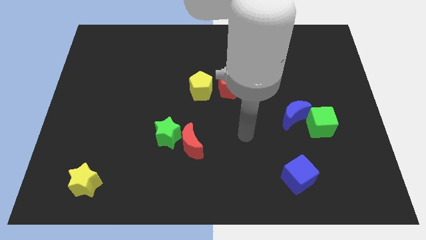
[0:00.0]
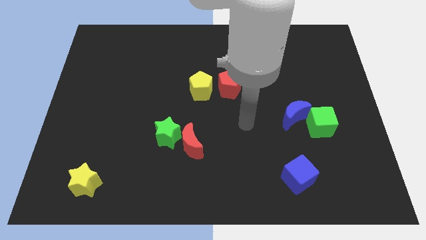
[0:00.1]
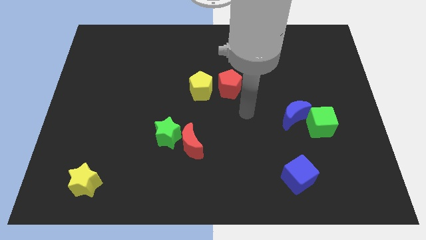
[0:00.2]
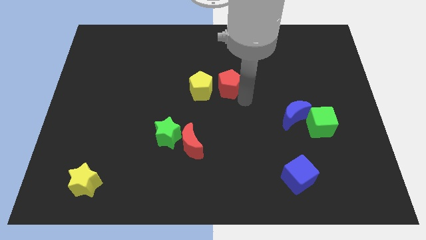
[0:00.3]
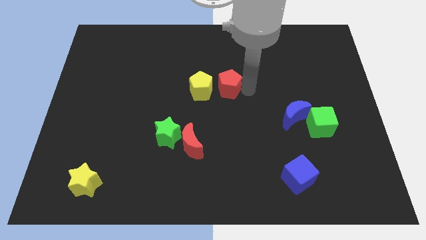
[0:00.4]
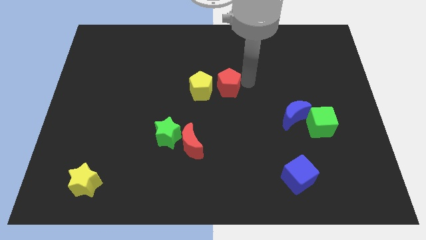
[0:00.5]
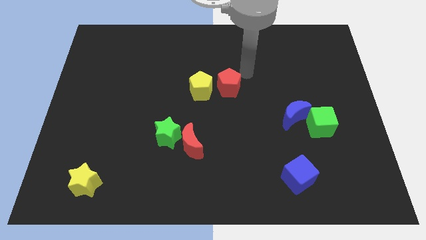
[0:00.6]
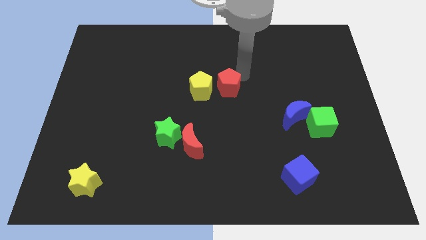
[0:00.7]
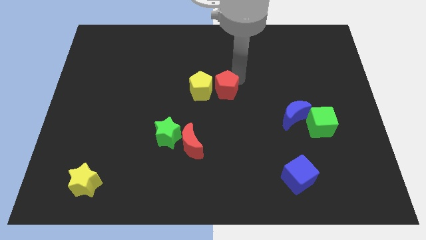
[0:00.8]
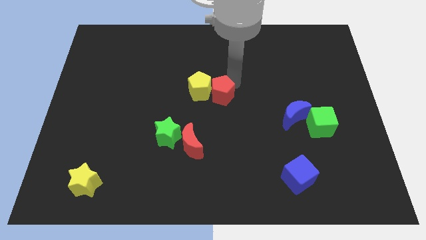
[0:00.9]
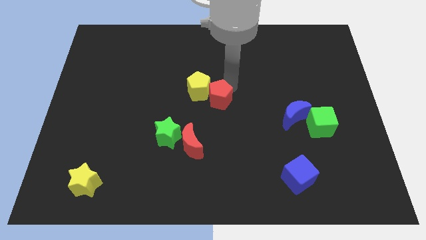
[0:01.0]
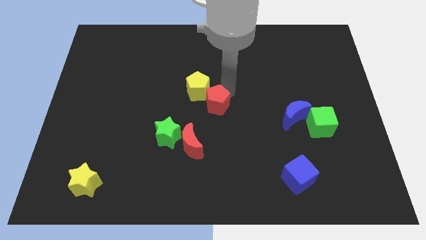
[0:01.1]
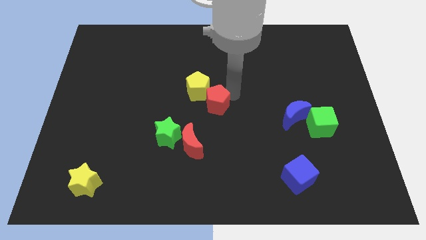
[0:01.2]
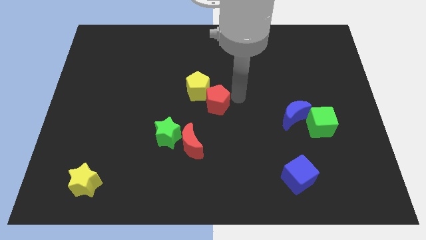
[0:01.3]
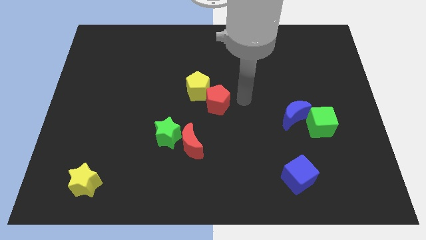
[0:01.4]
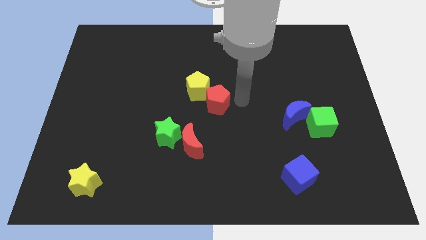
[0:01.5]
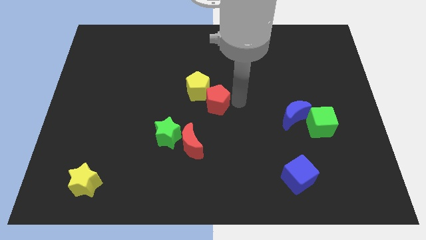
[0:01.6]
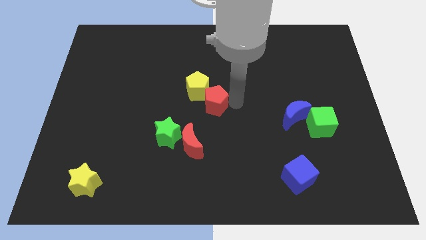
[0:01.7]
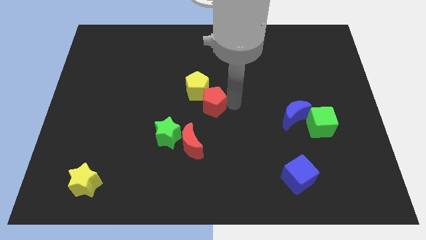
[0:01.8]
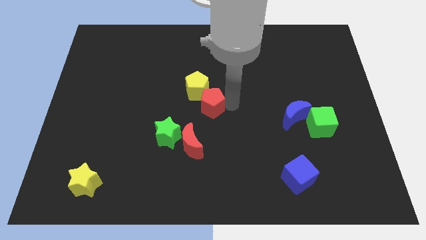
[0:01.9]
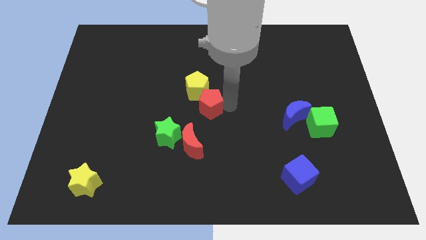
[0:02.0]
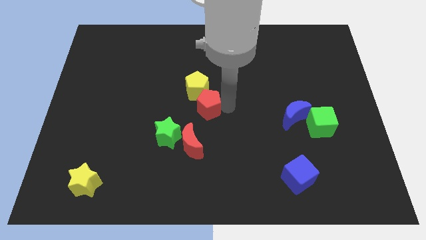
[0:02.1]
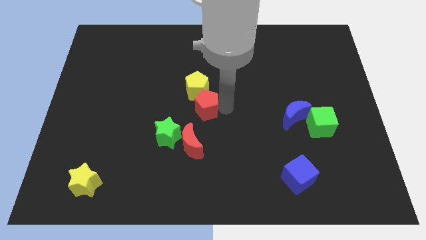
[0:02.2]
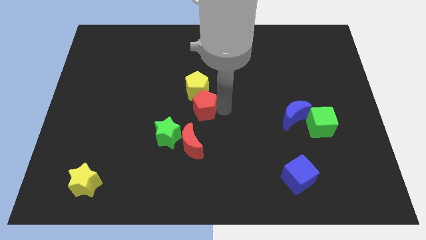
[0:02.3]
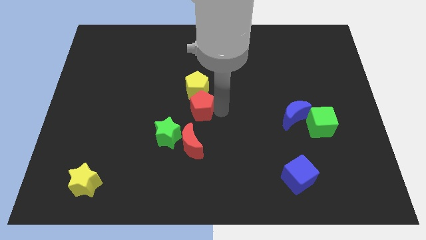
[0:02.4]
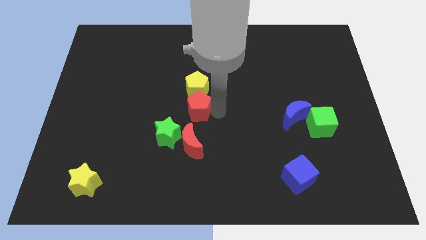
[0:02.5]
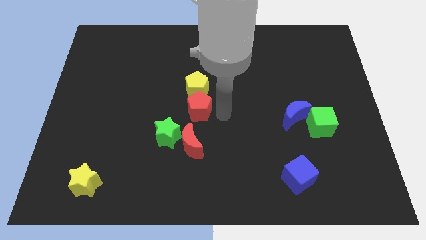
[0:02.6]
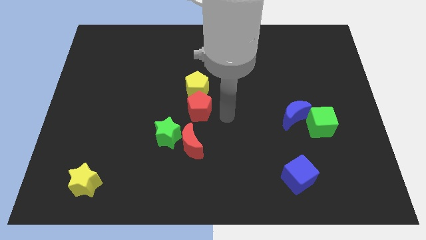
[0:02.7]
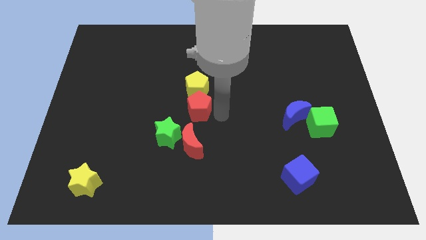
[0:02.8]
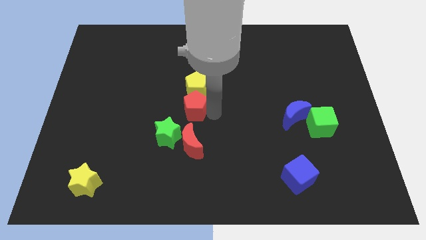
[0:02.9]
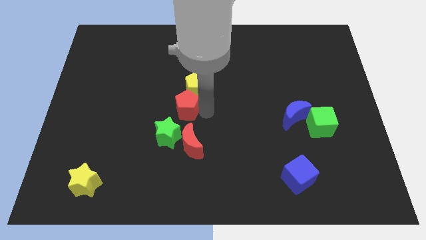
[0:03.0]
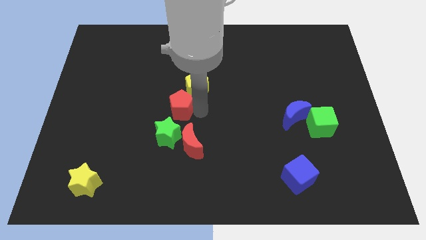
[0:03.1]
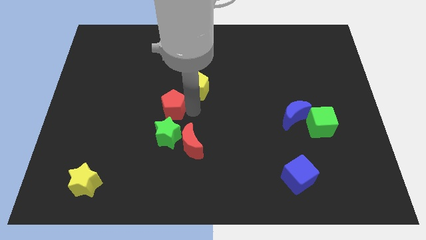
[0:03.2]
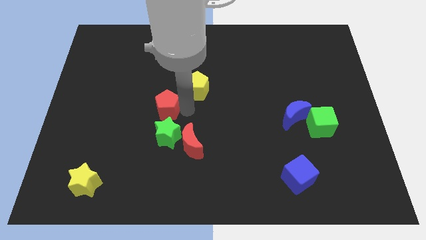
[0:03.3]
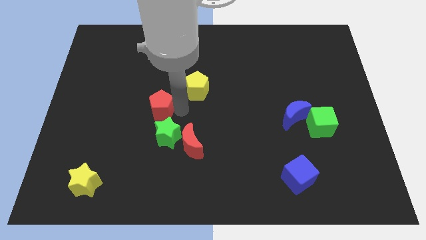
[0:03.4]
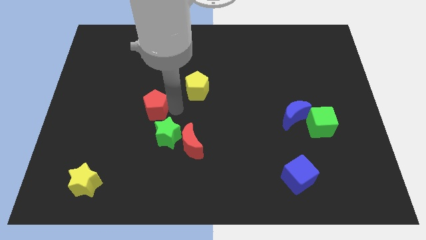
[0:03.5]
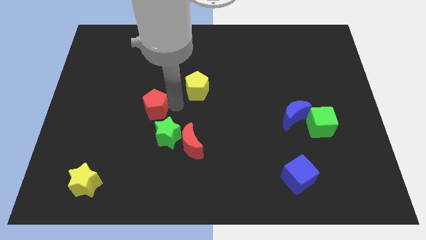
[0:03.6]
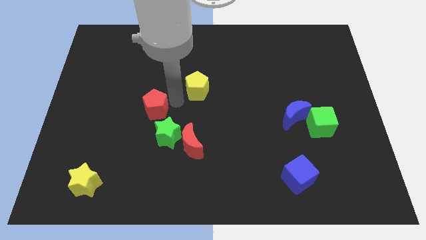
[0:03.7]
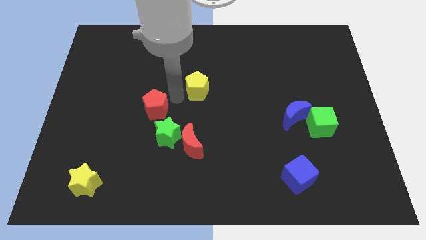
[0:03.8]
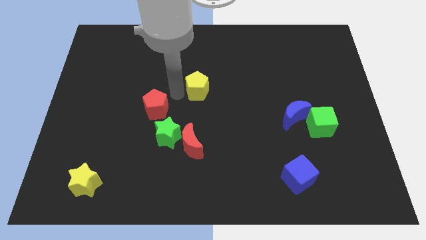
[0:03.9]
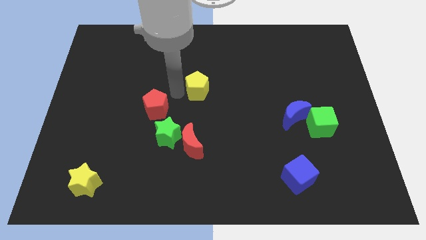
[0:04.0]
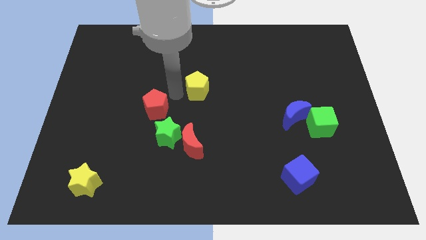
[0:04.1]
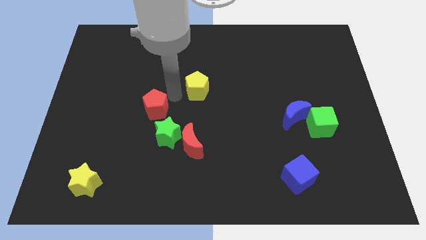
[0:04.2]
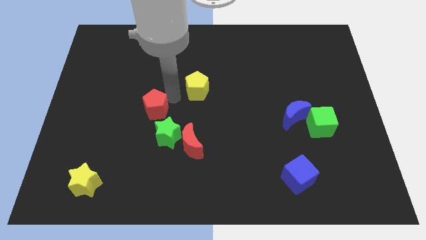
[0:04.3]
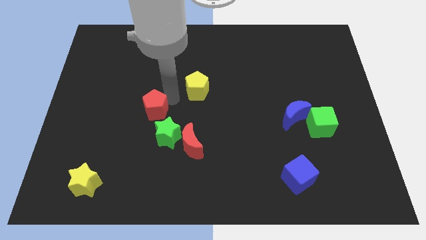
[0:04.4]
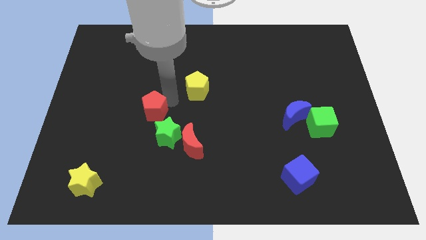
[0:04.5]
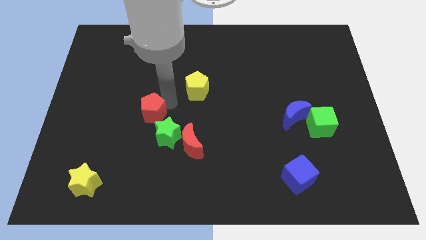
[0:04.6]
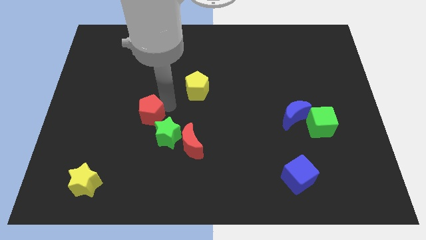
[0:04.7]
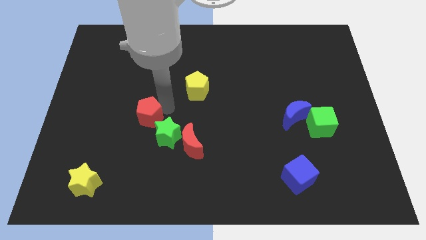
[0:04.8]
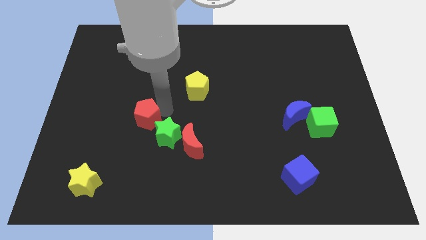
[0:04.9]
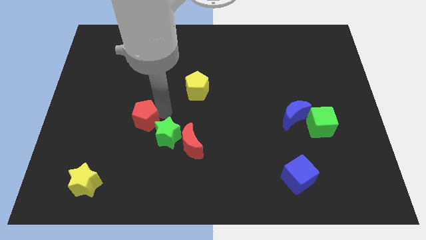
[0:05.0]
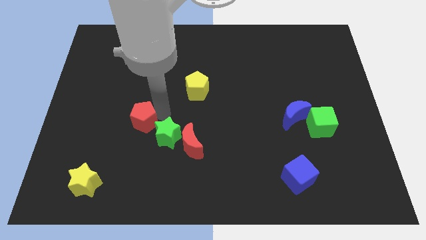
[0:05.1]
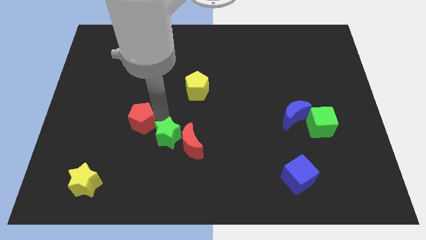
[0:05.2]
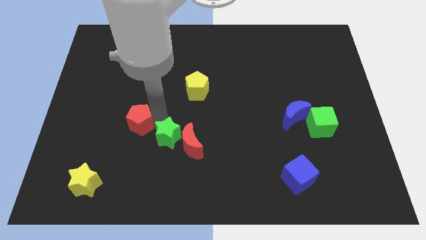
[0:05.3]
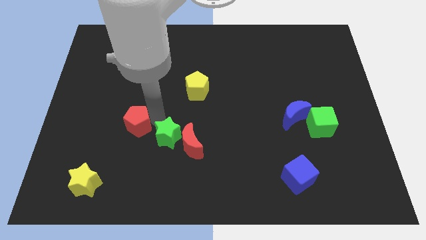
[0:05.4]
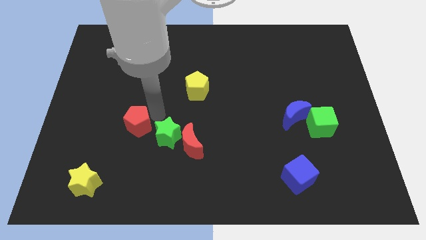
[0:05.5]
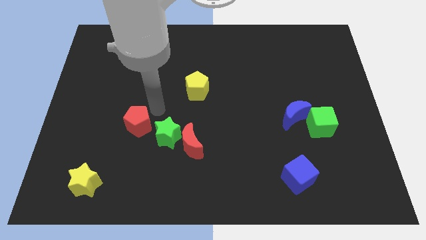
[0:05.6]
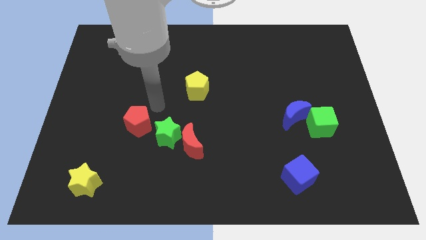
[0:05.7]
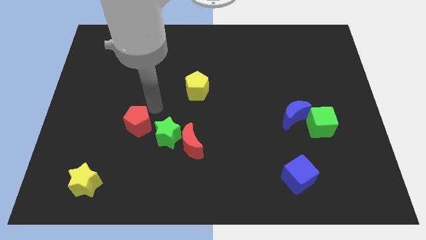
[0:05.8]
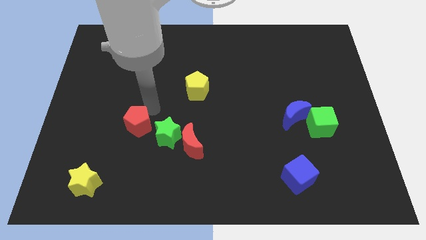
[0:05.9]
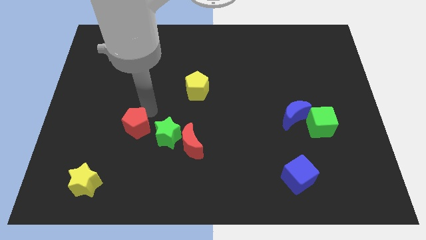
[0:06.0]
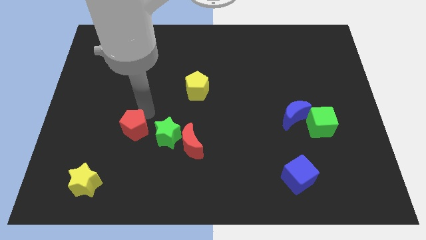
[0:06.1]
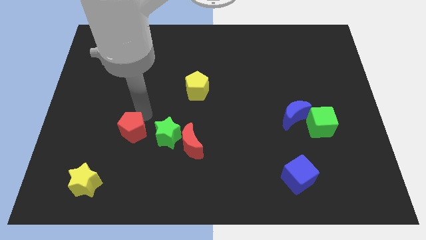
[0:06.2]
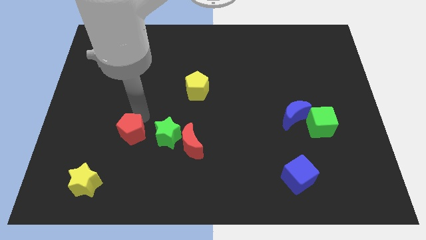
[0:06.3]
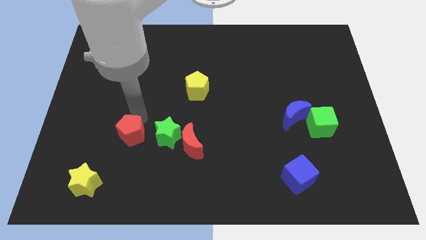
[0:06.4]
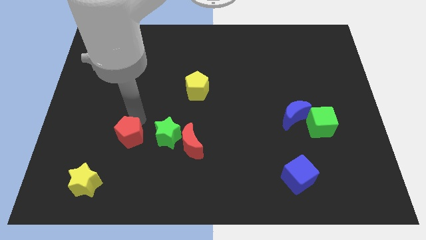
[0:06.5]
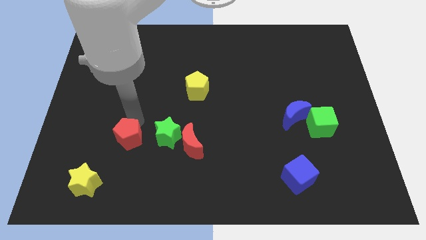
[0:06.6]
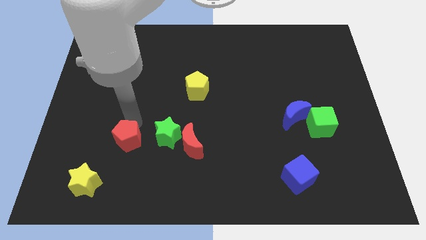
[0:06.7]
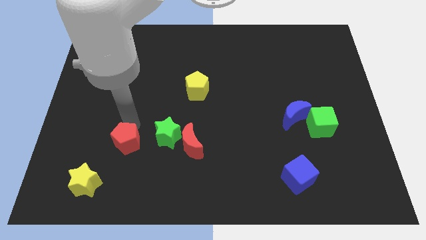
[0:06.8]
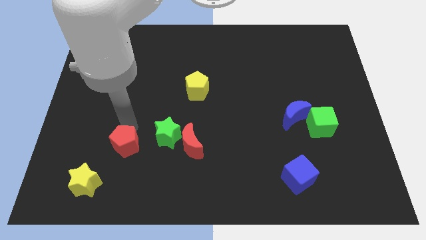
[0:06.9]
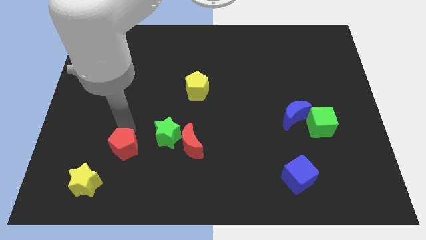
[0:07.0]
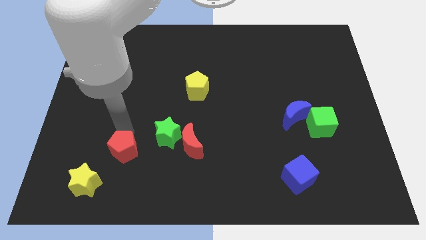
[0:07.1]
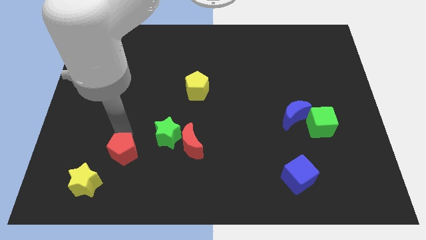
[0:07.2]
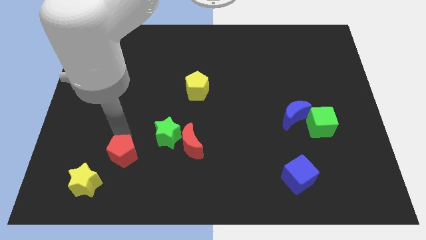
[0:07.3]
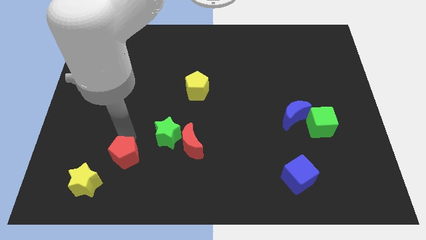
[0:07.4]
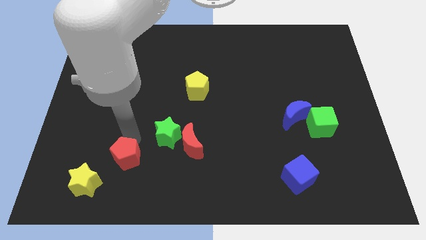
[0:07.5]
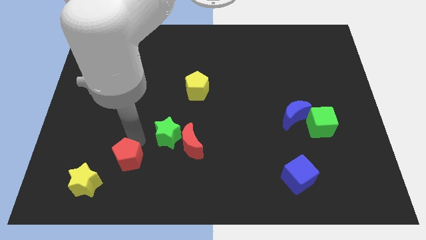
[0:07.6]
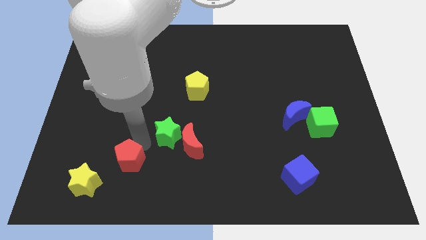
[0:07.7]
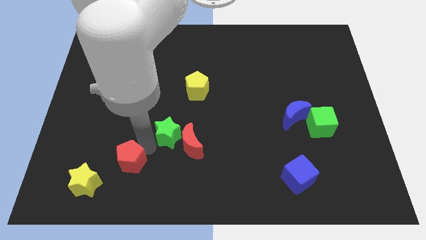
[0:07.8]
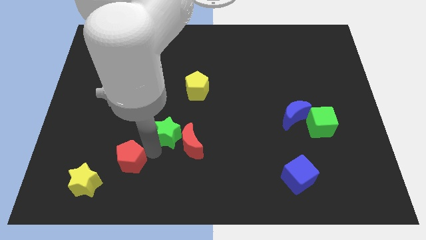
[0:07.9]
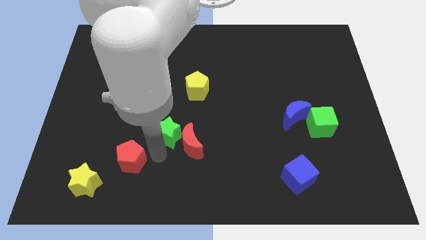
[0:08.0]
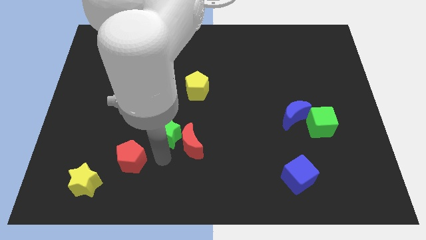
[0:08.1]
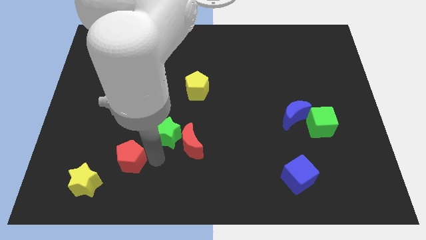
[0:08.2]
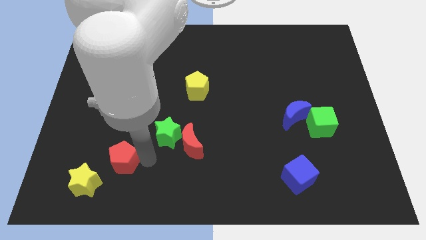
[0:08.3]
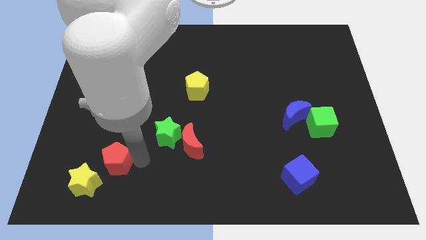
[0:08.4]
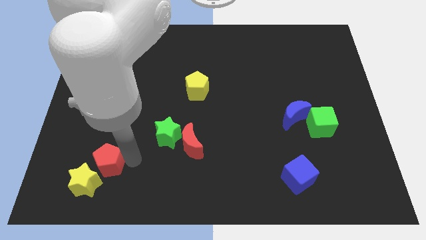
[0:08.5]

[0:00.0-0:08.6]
put the red pentagon next to the yellow star
